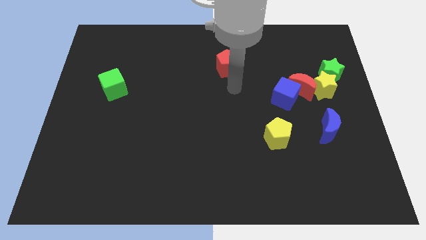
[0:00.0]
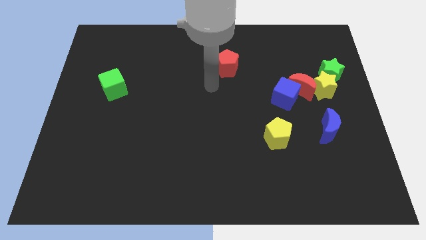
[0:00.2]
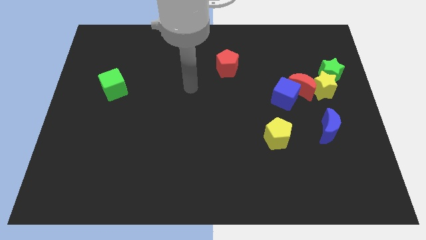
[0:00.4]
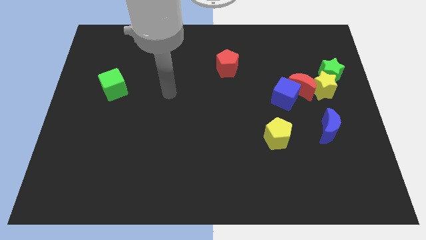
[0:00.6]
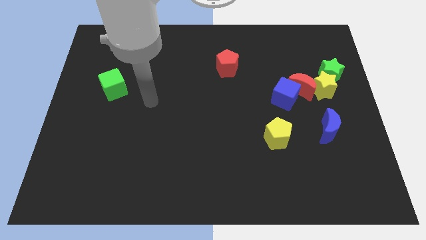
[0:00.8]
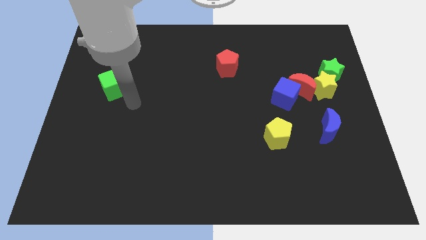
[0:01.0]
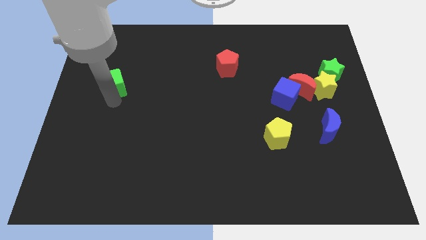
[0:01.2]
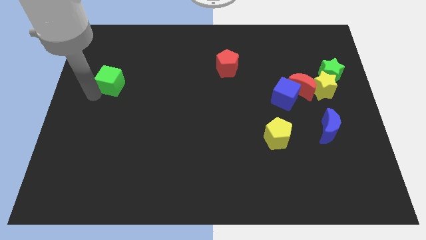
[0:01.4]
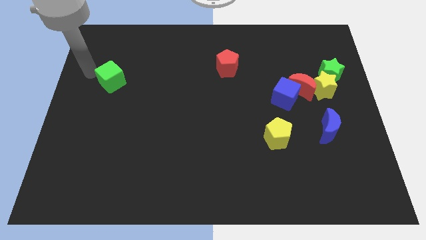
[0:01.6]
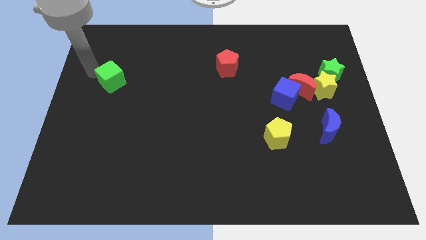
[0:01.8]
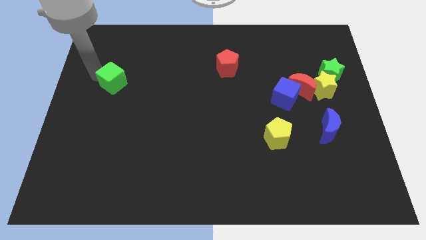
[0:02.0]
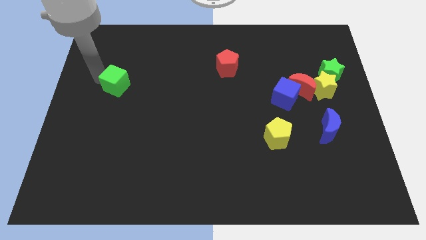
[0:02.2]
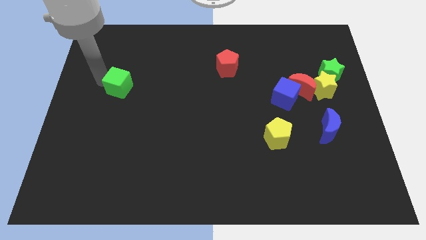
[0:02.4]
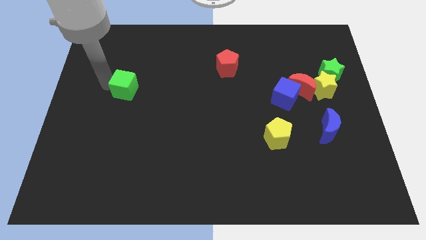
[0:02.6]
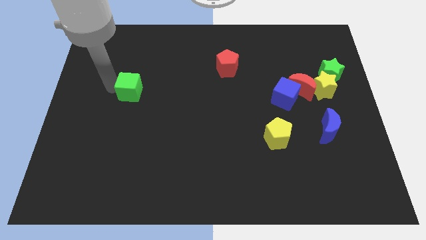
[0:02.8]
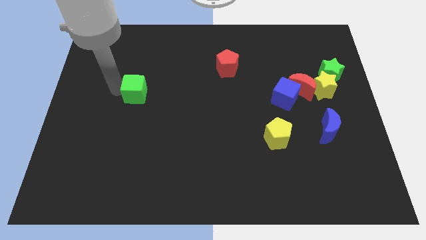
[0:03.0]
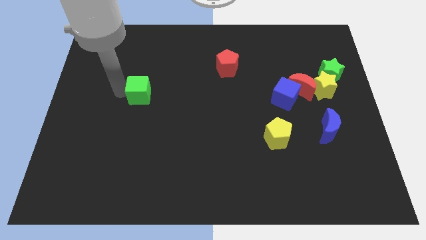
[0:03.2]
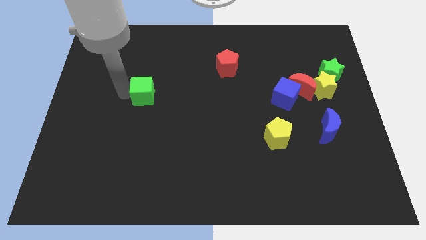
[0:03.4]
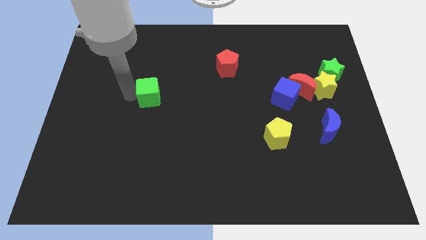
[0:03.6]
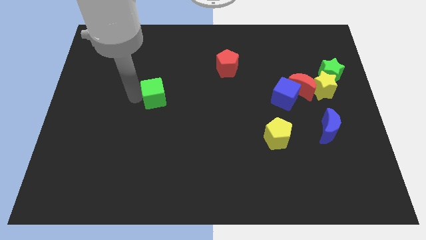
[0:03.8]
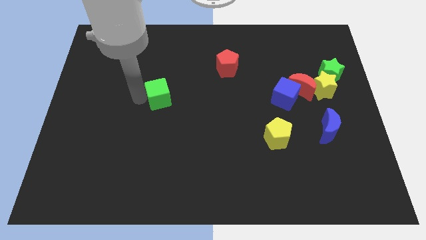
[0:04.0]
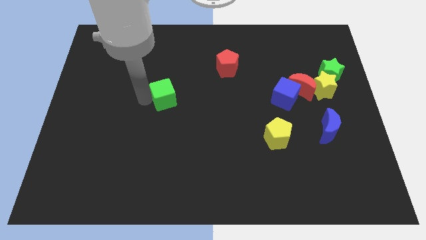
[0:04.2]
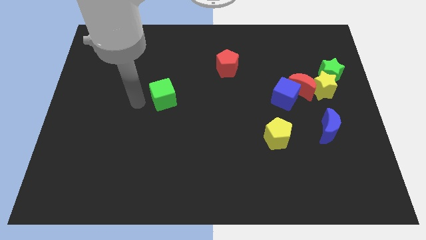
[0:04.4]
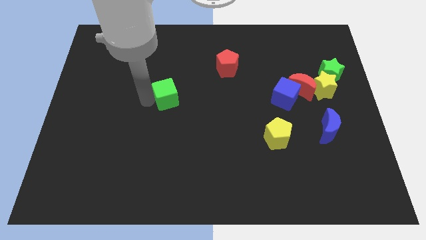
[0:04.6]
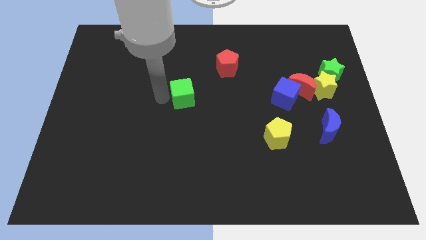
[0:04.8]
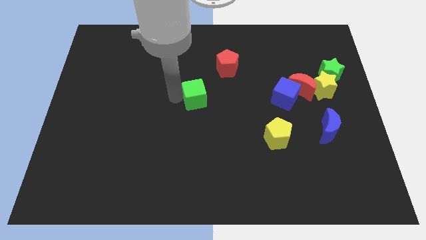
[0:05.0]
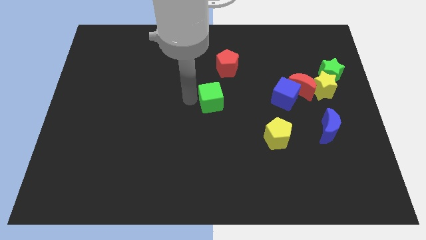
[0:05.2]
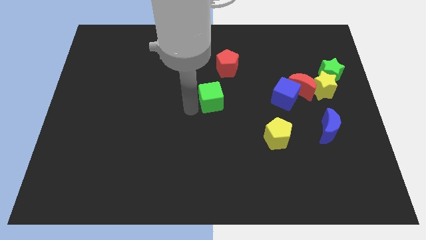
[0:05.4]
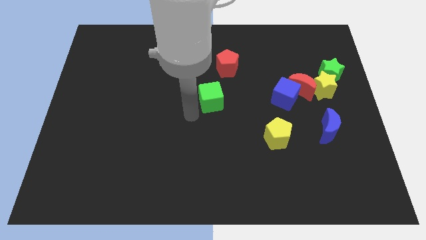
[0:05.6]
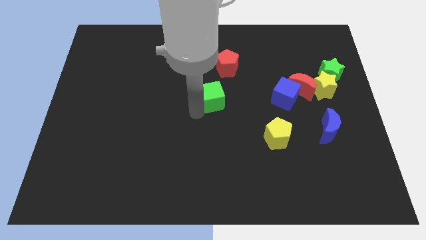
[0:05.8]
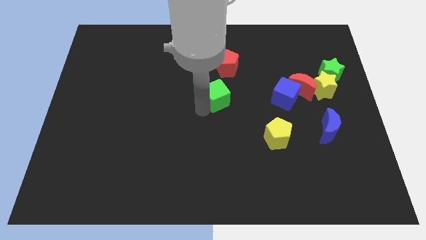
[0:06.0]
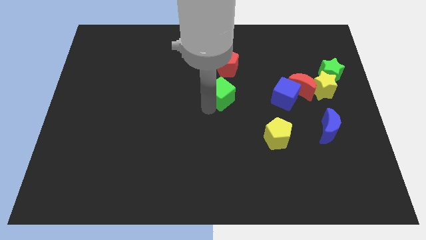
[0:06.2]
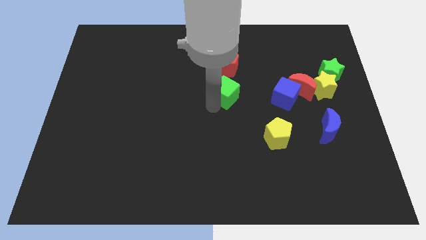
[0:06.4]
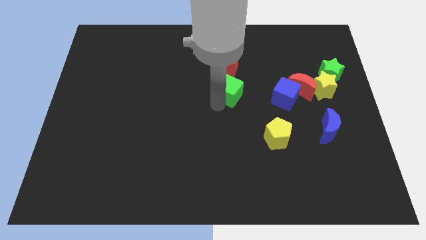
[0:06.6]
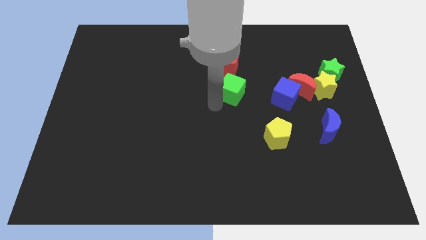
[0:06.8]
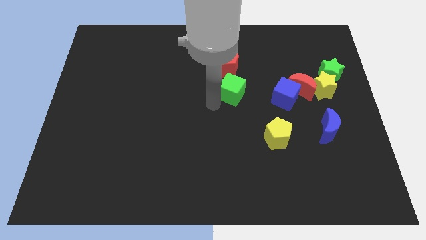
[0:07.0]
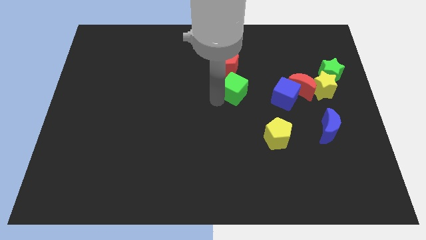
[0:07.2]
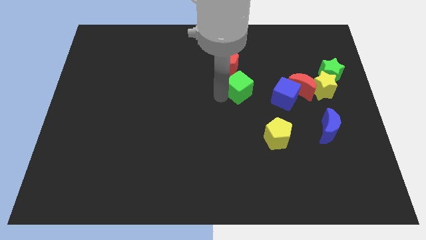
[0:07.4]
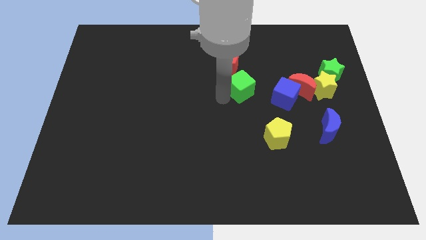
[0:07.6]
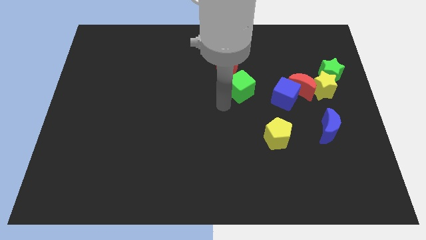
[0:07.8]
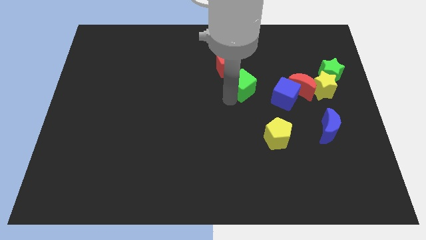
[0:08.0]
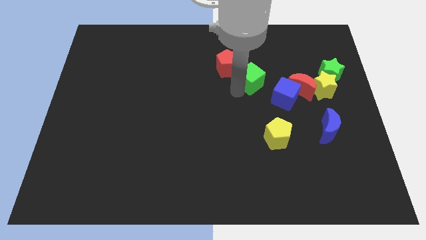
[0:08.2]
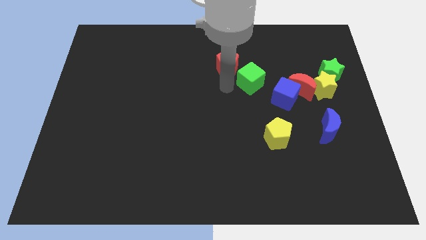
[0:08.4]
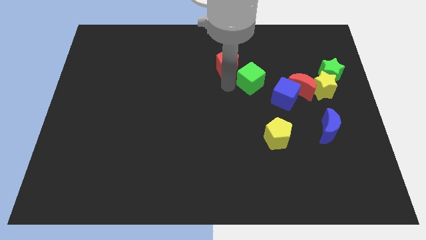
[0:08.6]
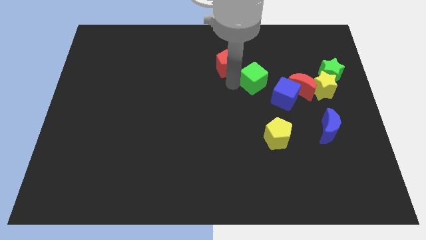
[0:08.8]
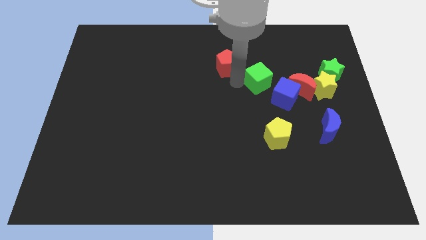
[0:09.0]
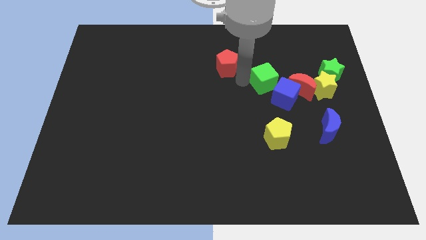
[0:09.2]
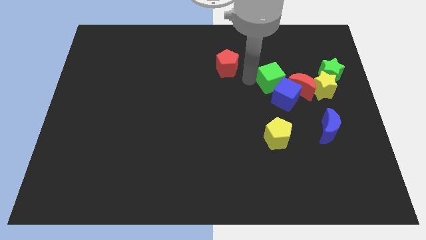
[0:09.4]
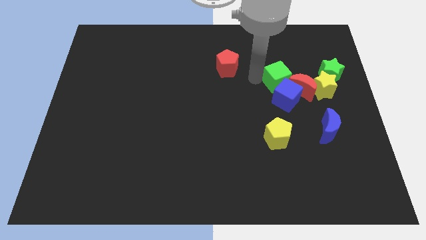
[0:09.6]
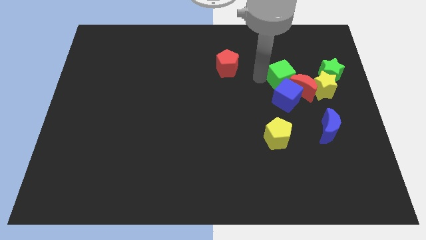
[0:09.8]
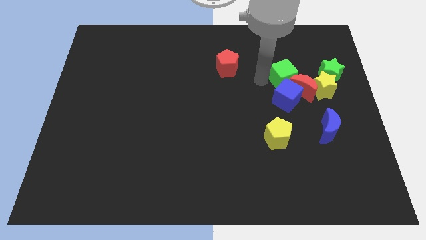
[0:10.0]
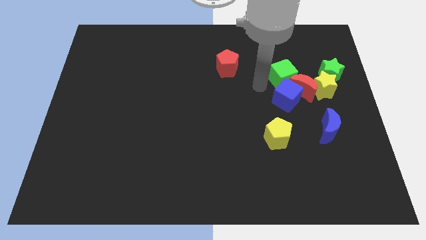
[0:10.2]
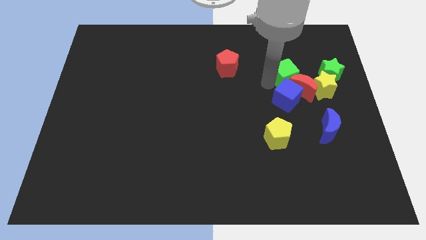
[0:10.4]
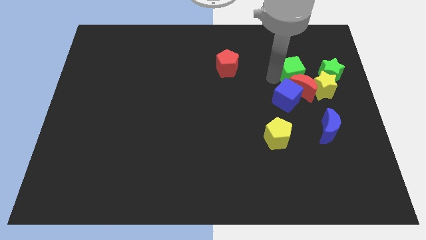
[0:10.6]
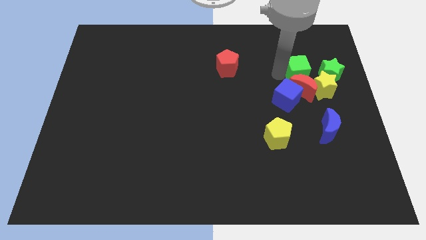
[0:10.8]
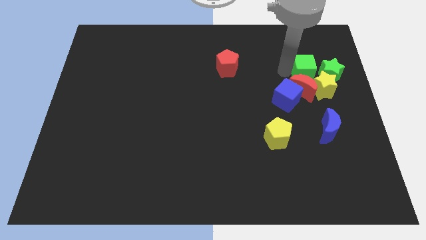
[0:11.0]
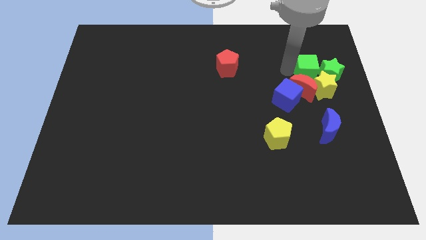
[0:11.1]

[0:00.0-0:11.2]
move the green cube next to the green star

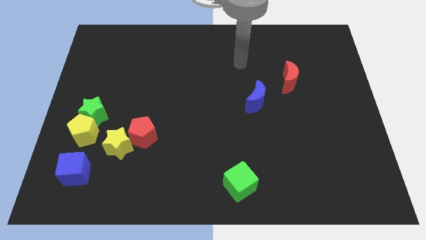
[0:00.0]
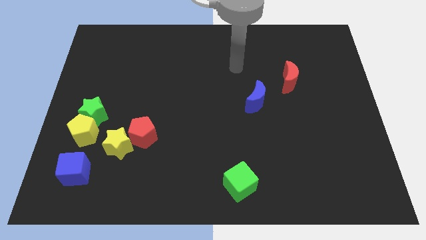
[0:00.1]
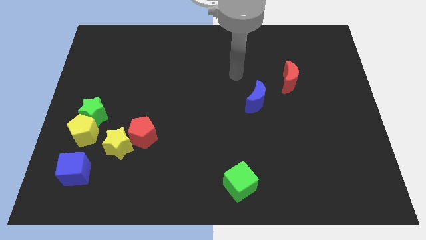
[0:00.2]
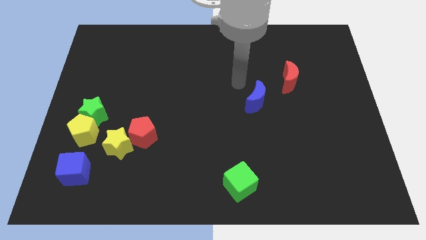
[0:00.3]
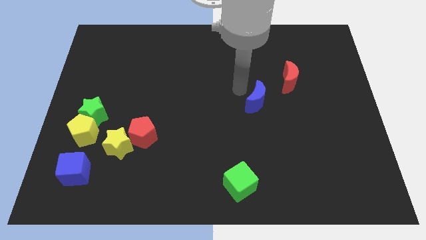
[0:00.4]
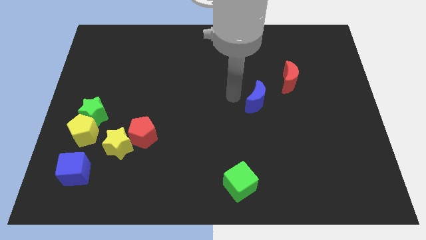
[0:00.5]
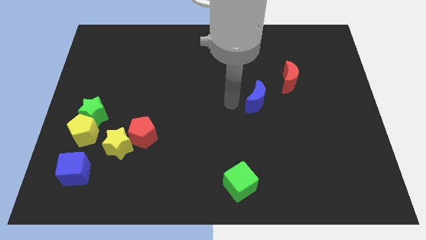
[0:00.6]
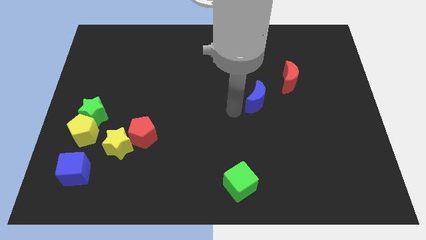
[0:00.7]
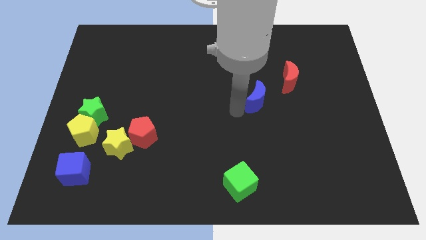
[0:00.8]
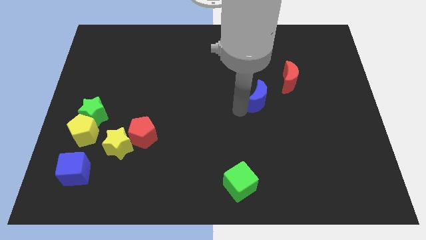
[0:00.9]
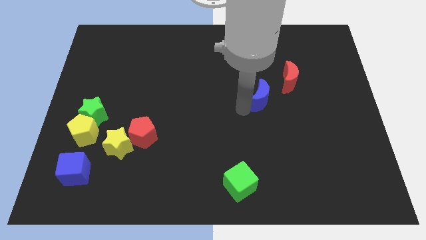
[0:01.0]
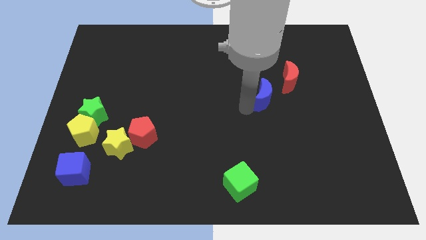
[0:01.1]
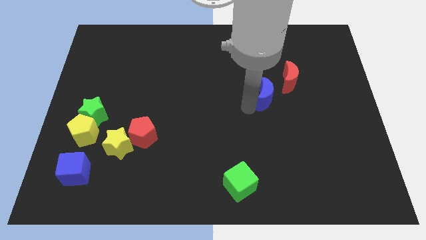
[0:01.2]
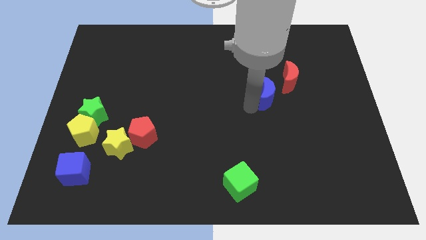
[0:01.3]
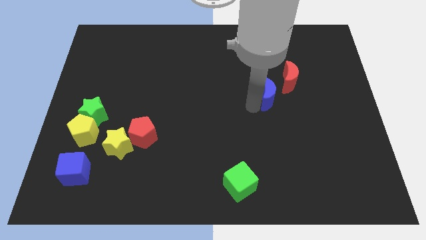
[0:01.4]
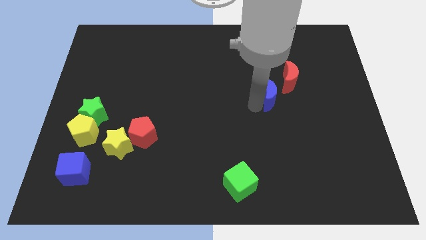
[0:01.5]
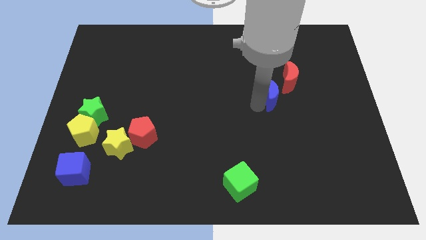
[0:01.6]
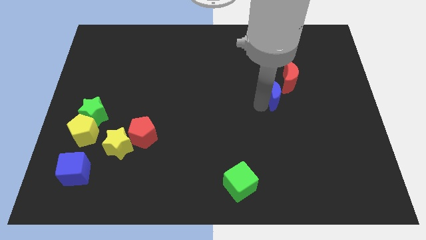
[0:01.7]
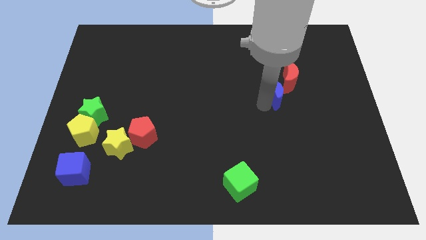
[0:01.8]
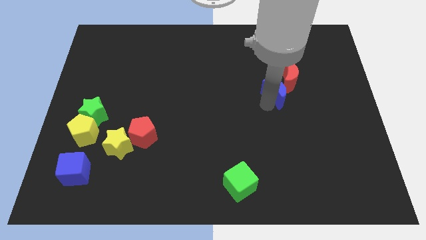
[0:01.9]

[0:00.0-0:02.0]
move the blue moon to the red moon
